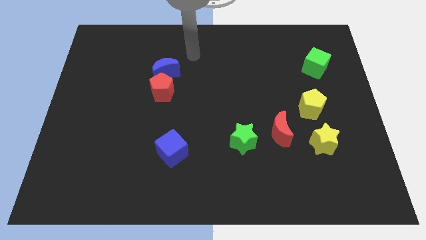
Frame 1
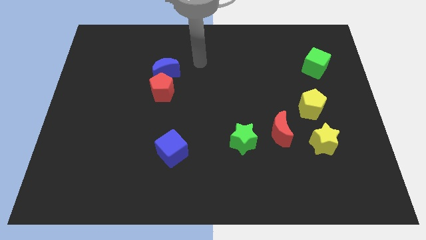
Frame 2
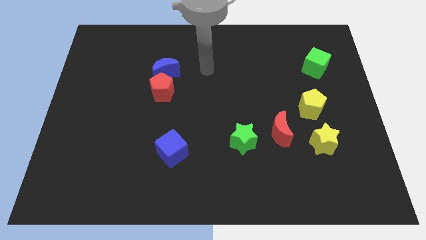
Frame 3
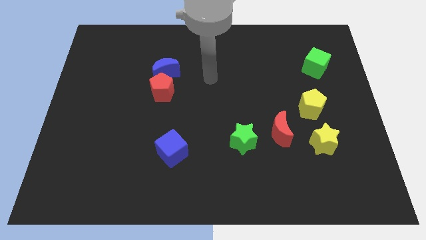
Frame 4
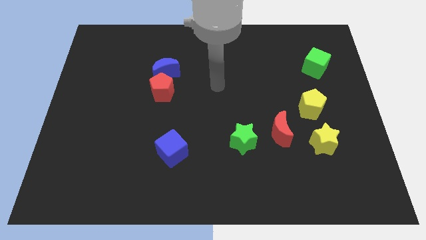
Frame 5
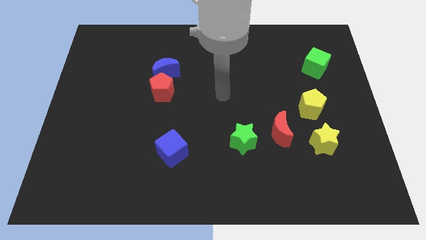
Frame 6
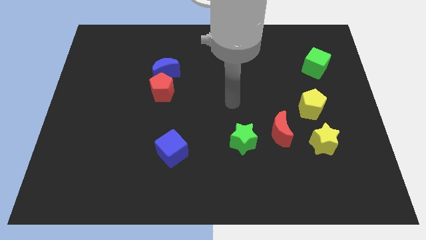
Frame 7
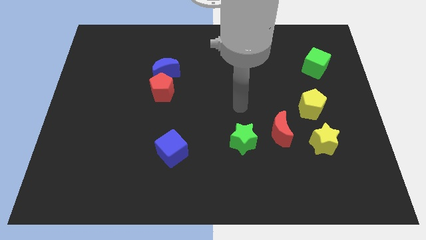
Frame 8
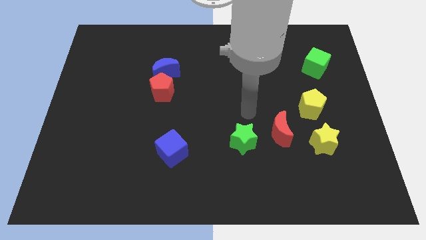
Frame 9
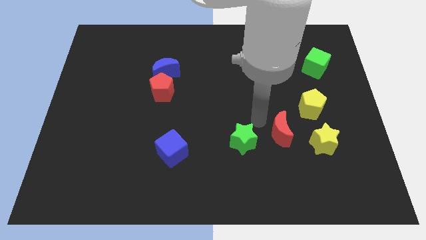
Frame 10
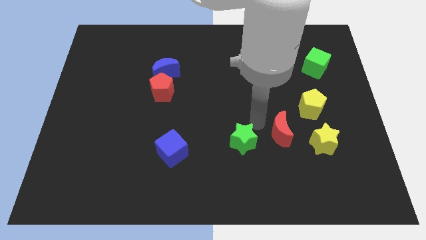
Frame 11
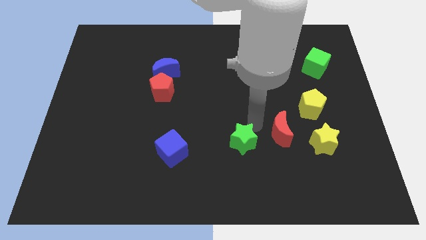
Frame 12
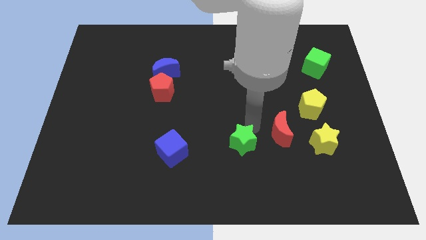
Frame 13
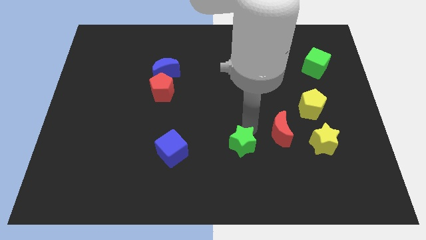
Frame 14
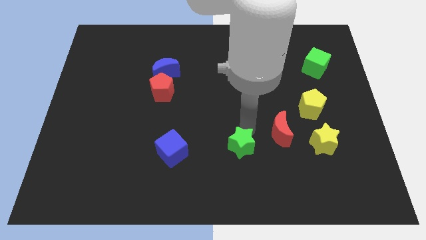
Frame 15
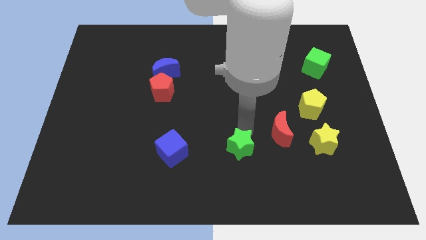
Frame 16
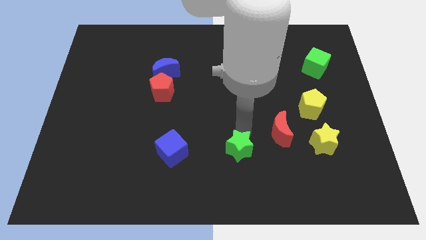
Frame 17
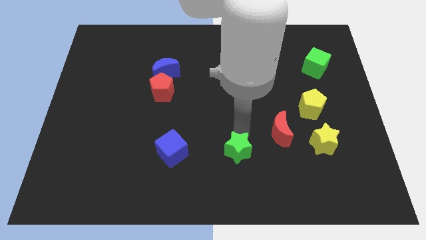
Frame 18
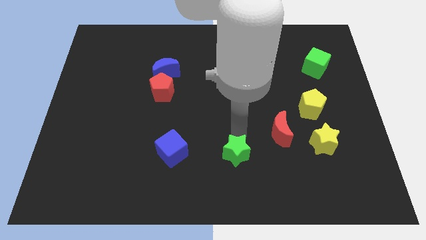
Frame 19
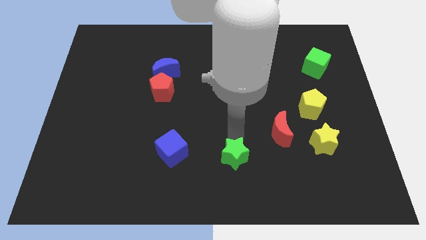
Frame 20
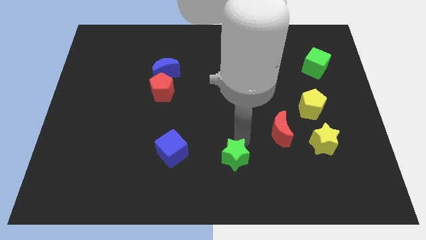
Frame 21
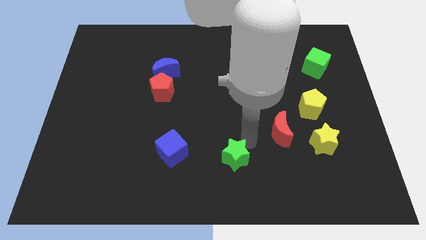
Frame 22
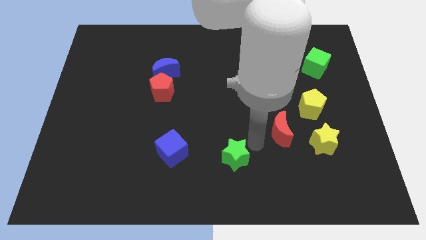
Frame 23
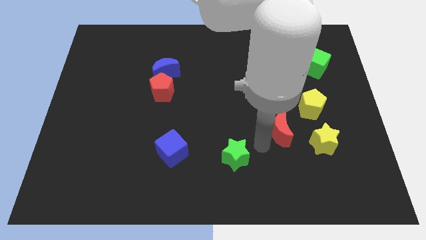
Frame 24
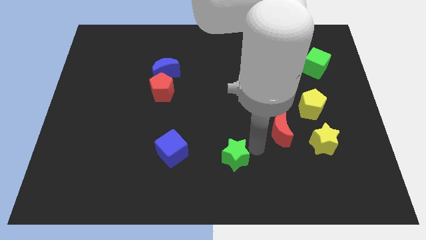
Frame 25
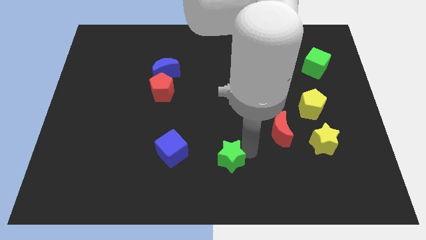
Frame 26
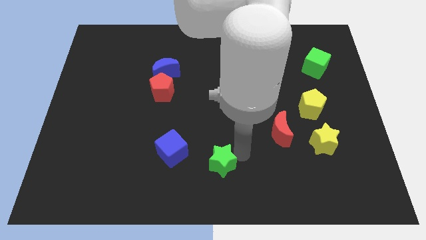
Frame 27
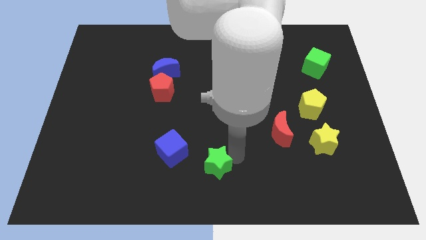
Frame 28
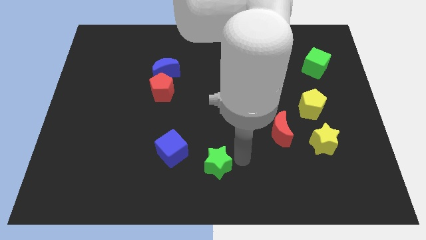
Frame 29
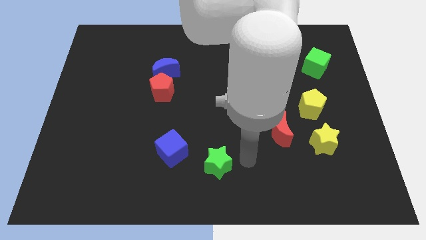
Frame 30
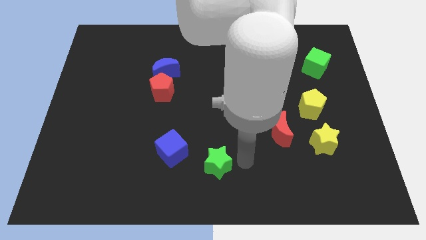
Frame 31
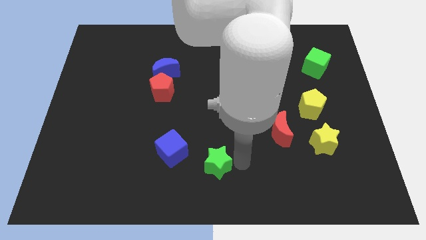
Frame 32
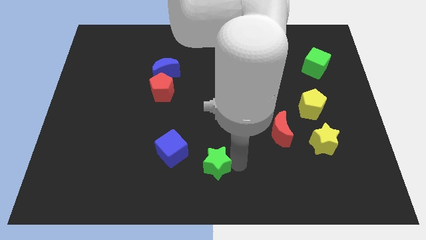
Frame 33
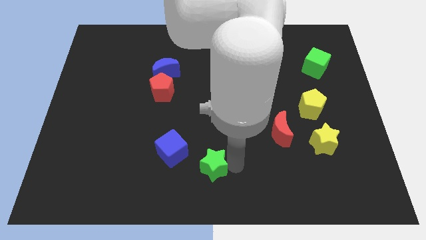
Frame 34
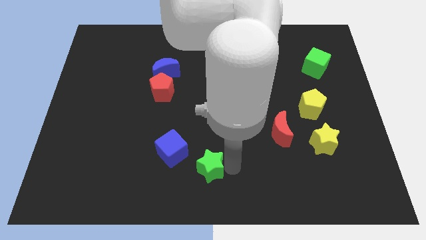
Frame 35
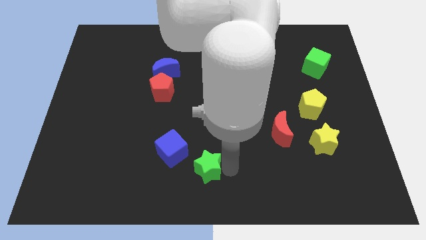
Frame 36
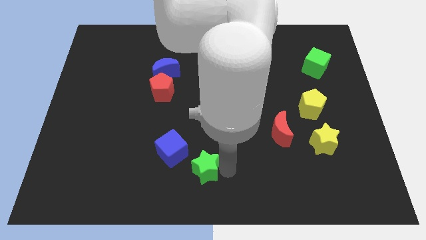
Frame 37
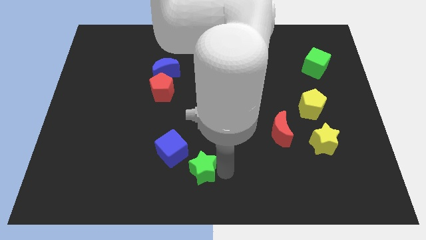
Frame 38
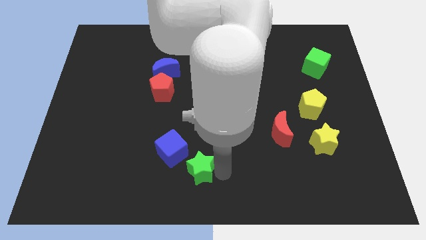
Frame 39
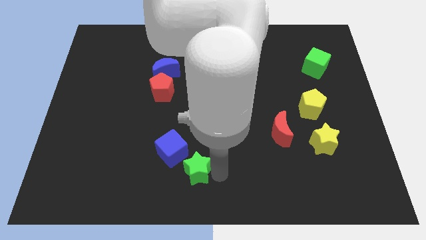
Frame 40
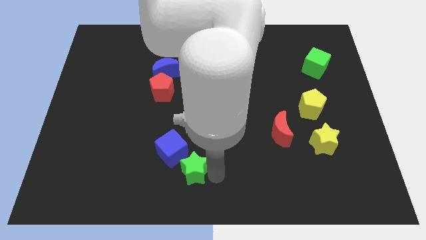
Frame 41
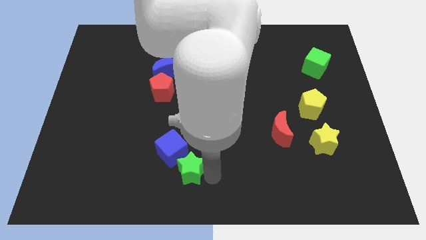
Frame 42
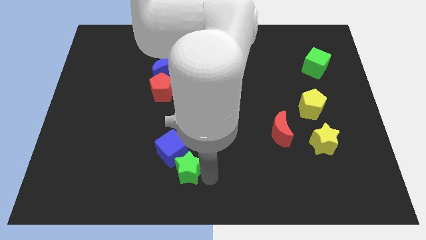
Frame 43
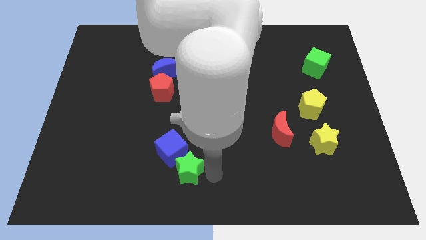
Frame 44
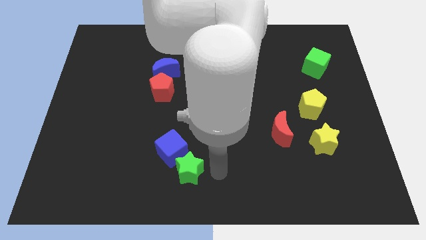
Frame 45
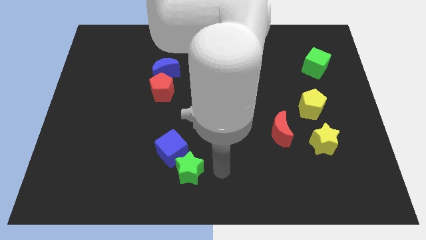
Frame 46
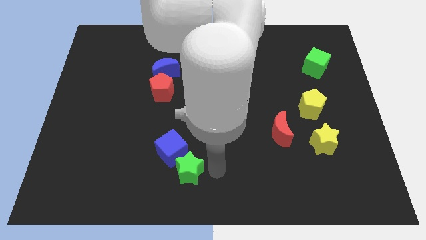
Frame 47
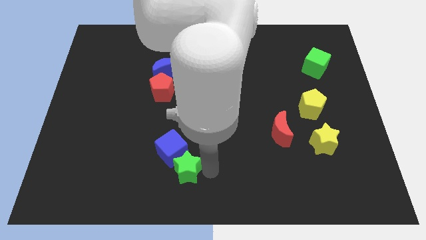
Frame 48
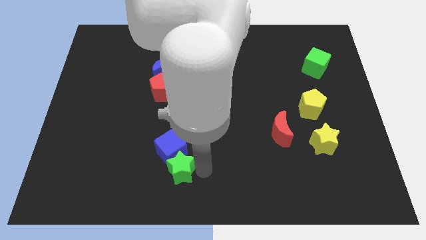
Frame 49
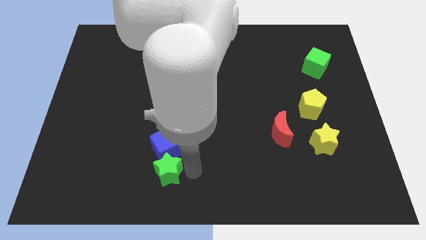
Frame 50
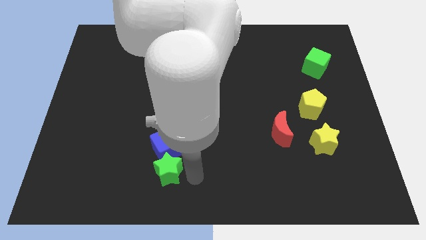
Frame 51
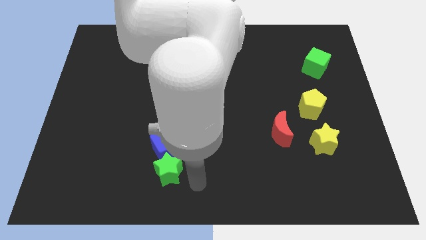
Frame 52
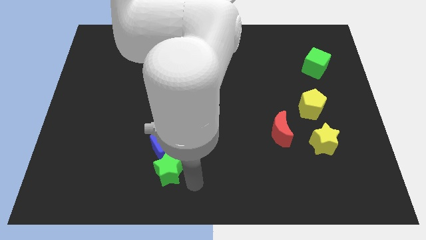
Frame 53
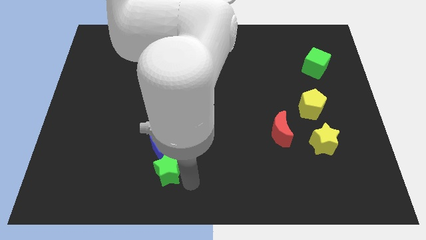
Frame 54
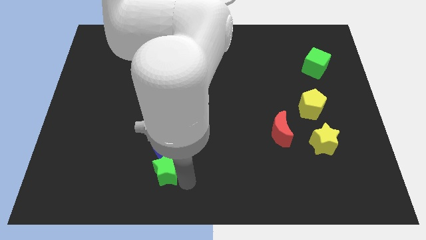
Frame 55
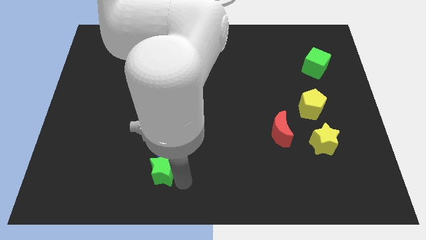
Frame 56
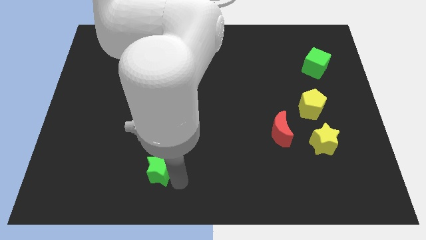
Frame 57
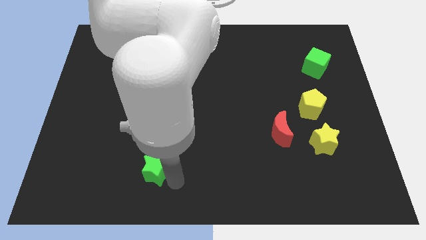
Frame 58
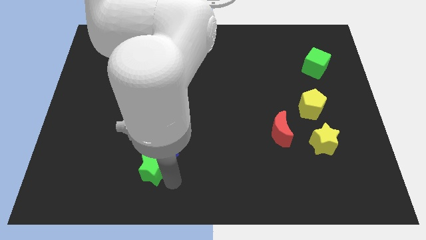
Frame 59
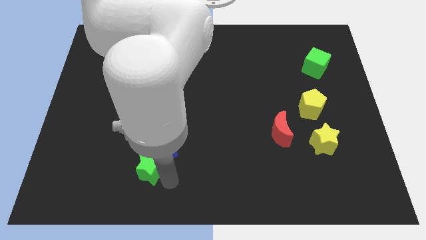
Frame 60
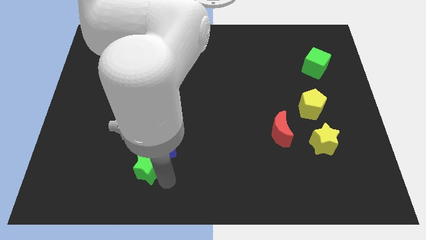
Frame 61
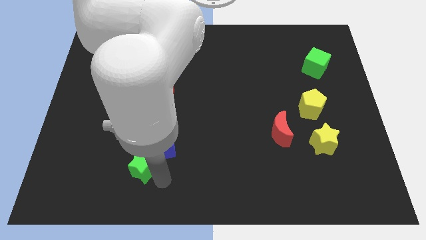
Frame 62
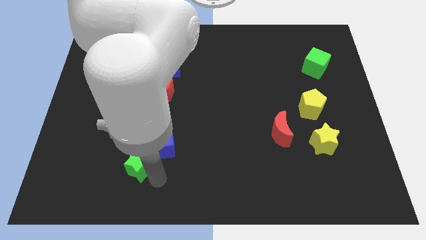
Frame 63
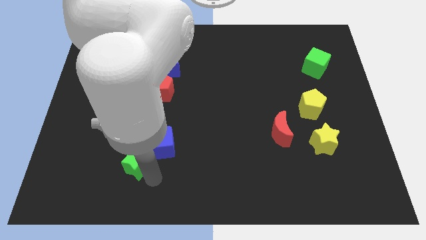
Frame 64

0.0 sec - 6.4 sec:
move the green star just left of the blue cube
